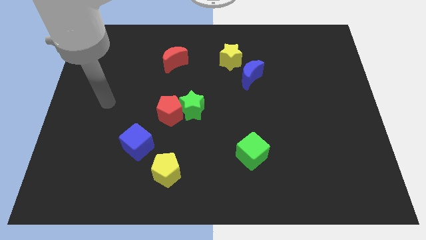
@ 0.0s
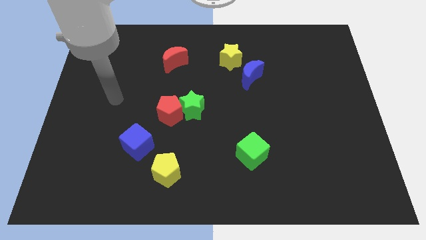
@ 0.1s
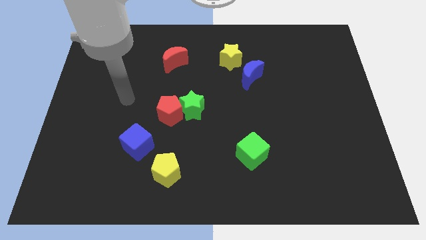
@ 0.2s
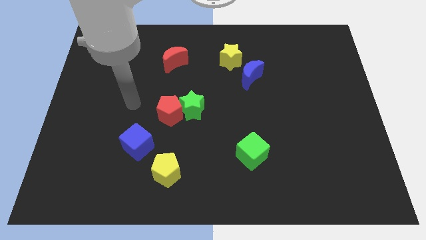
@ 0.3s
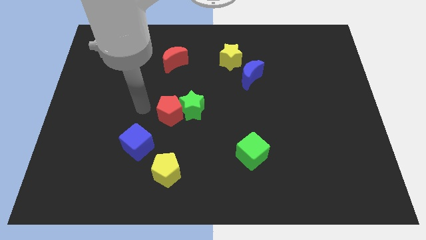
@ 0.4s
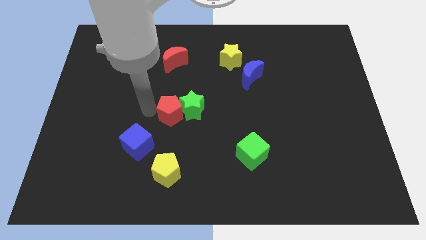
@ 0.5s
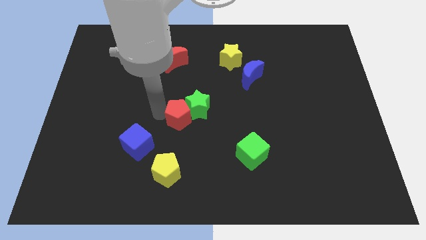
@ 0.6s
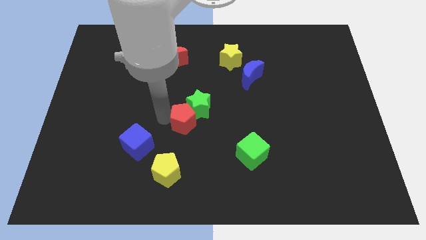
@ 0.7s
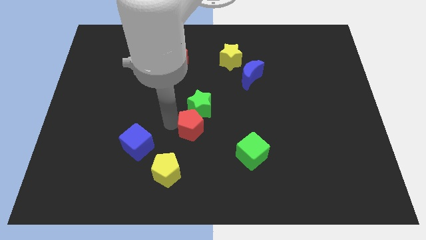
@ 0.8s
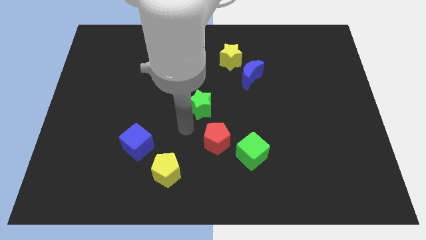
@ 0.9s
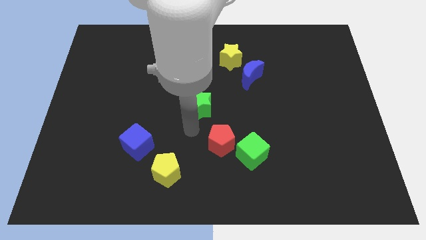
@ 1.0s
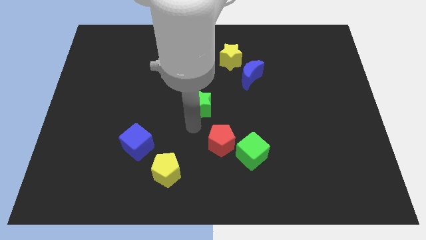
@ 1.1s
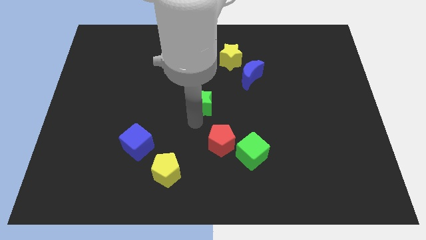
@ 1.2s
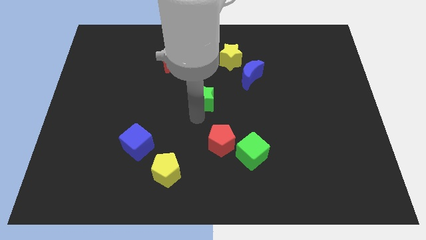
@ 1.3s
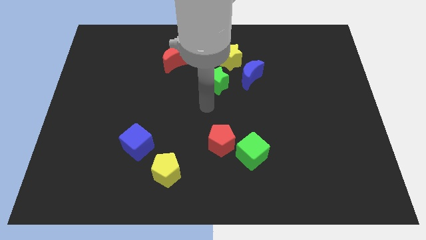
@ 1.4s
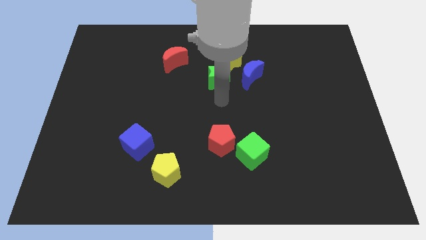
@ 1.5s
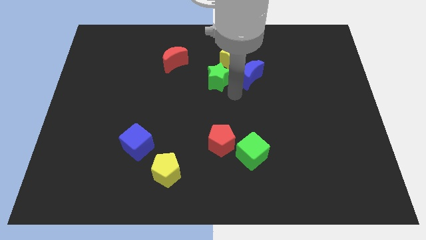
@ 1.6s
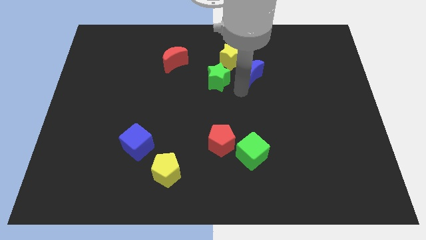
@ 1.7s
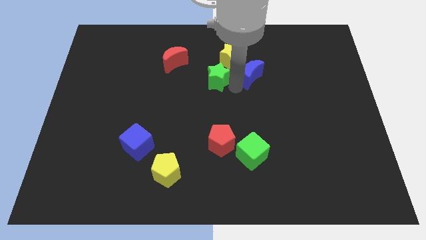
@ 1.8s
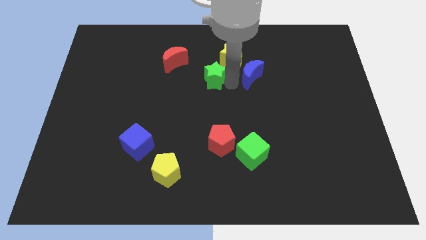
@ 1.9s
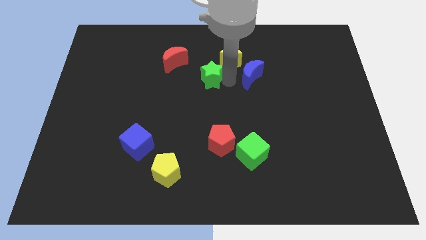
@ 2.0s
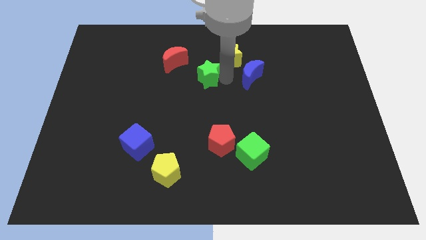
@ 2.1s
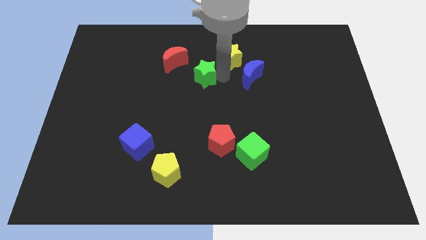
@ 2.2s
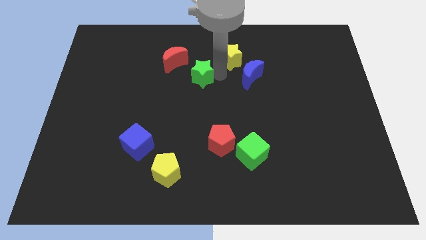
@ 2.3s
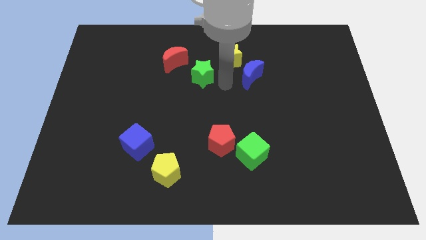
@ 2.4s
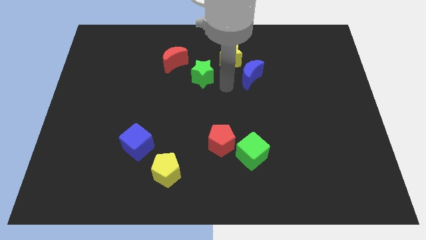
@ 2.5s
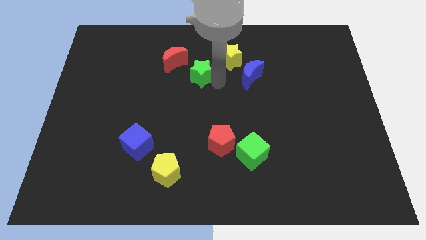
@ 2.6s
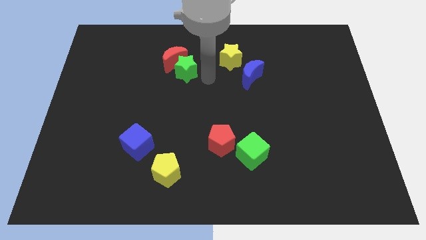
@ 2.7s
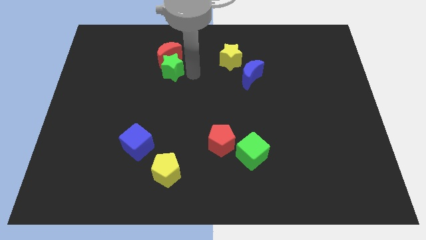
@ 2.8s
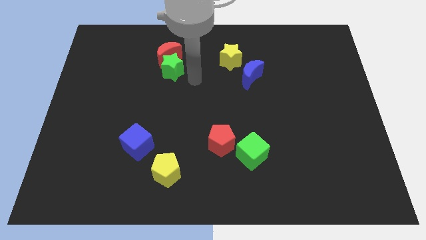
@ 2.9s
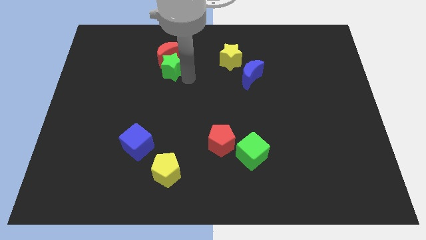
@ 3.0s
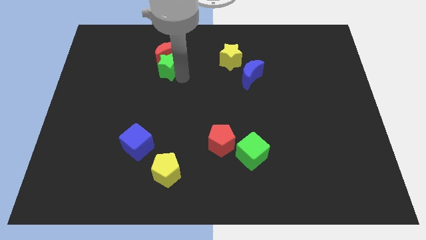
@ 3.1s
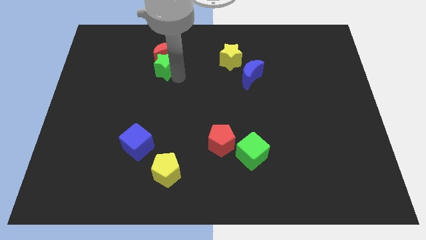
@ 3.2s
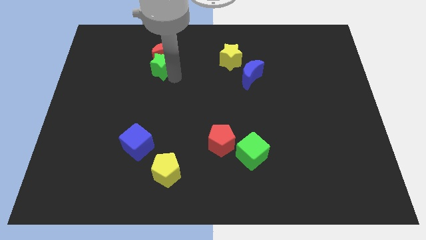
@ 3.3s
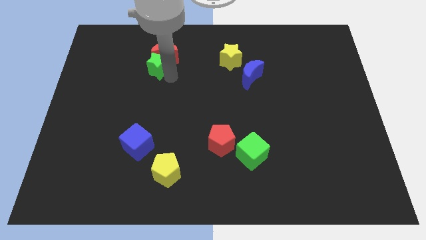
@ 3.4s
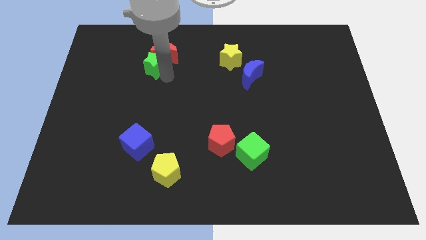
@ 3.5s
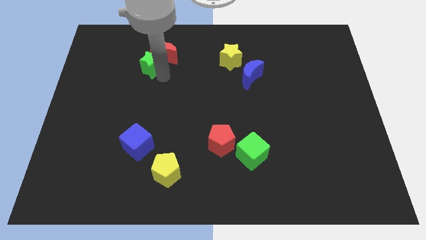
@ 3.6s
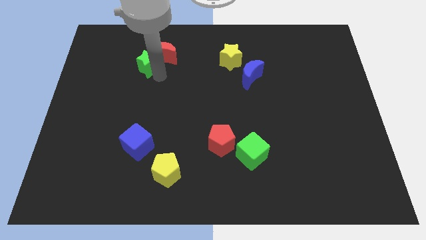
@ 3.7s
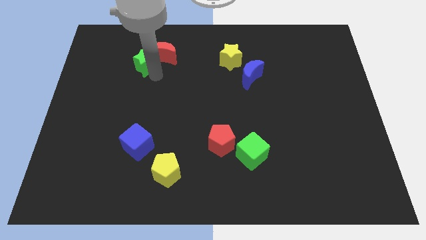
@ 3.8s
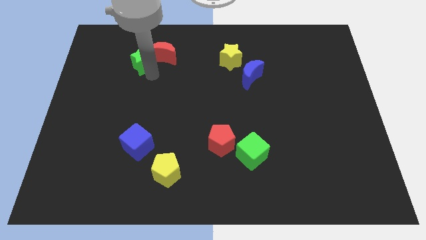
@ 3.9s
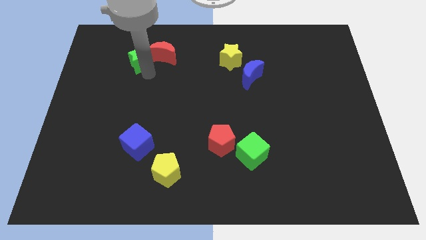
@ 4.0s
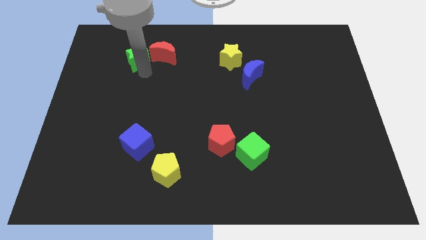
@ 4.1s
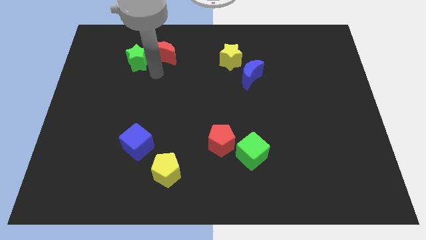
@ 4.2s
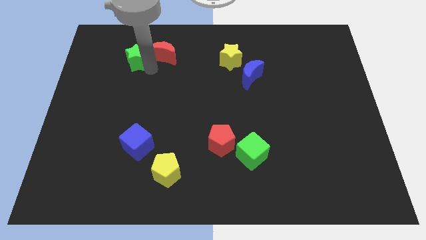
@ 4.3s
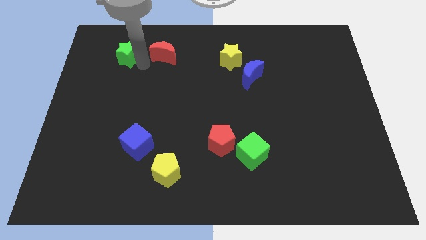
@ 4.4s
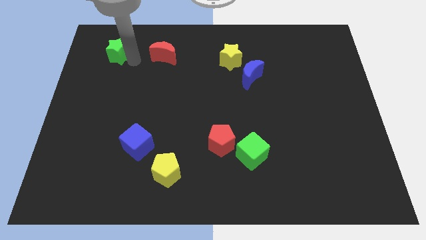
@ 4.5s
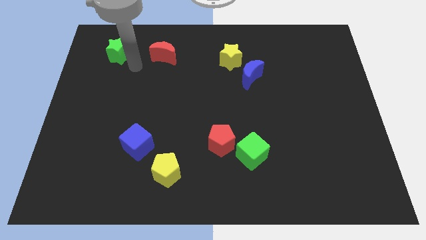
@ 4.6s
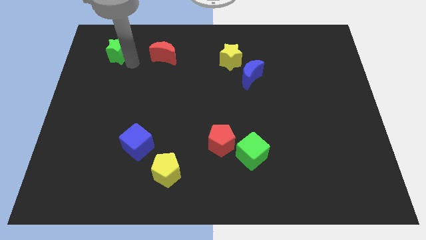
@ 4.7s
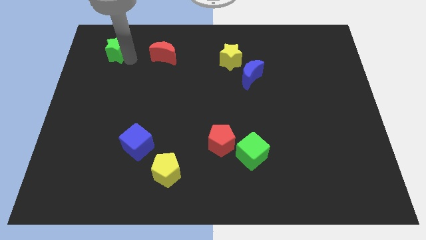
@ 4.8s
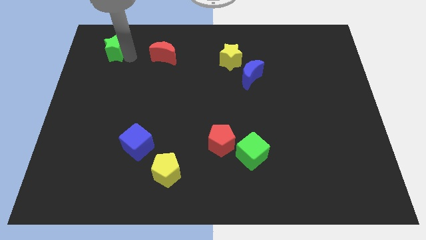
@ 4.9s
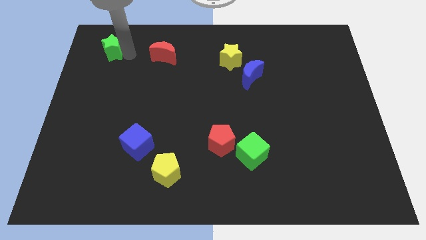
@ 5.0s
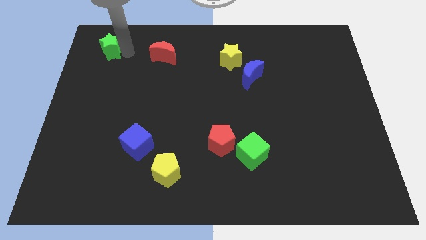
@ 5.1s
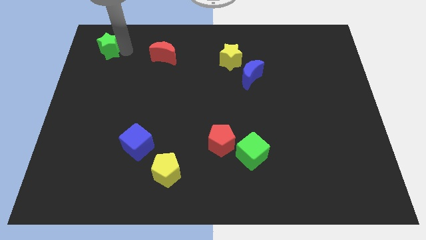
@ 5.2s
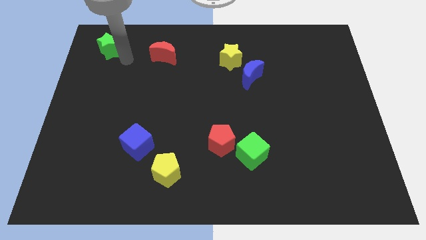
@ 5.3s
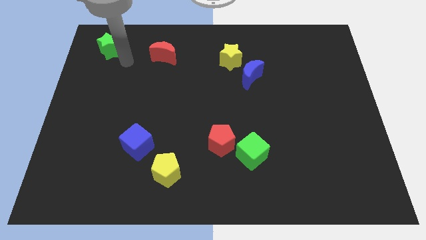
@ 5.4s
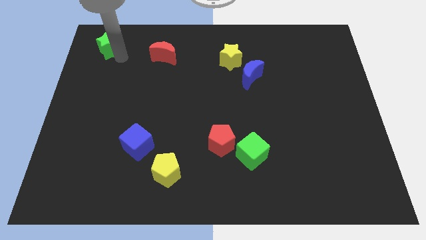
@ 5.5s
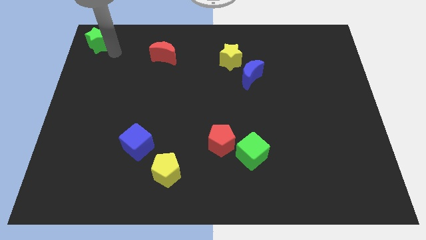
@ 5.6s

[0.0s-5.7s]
push the green star to the top left

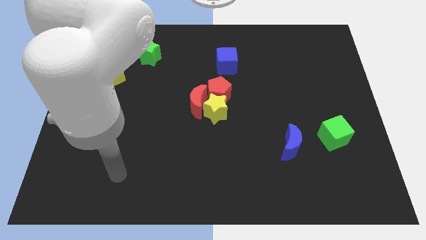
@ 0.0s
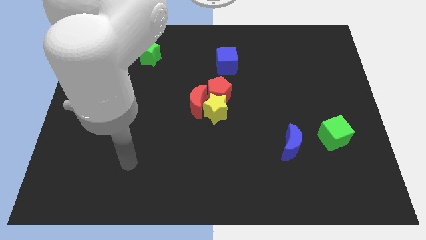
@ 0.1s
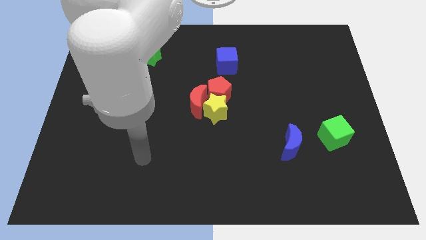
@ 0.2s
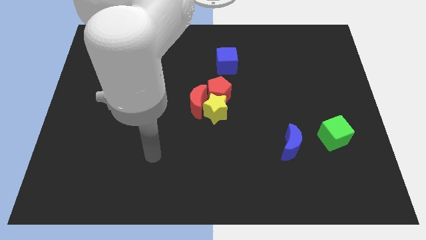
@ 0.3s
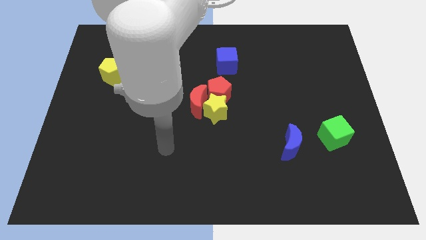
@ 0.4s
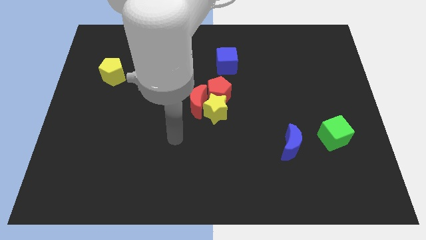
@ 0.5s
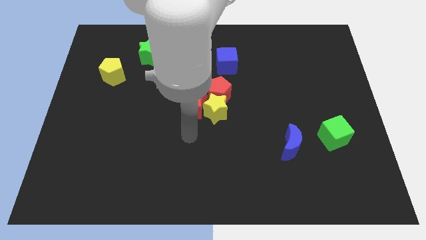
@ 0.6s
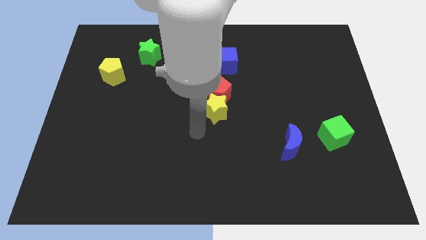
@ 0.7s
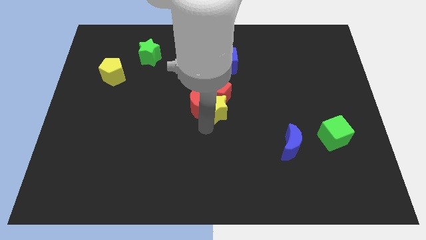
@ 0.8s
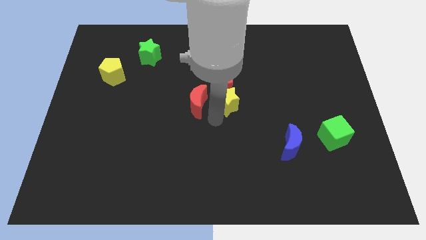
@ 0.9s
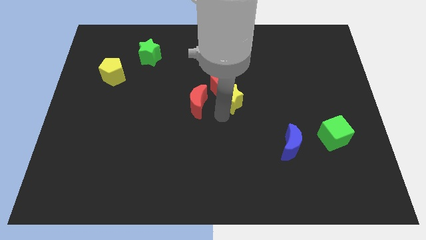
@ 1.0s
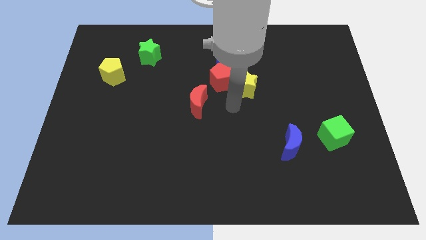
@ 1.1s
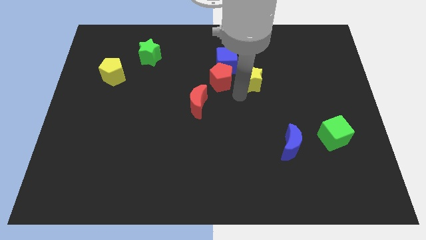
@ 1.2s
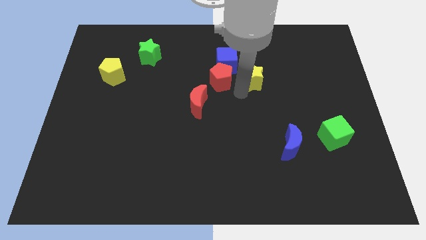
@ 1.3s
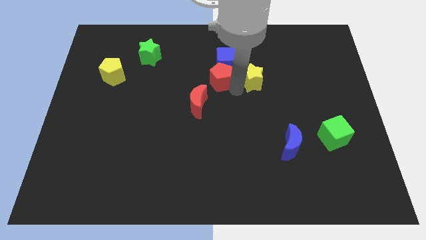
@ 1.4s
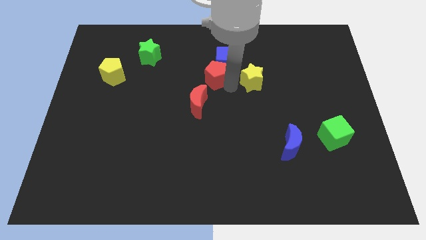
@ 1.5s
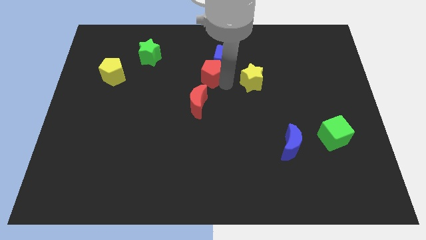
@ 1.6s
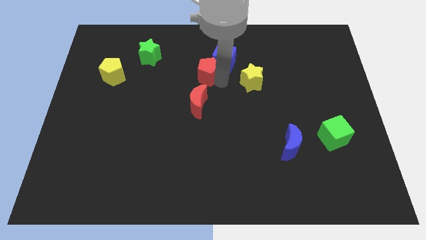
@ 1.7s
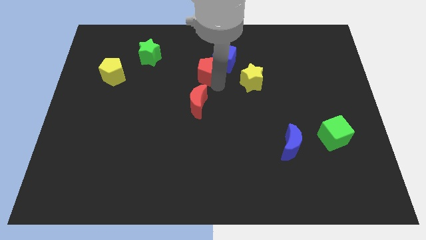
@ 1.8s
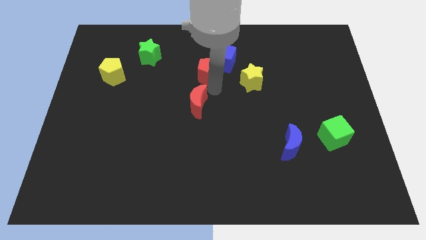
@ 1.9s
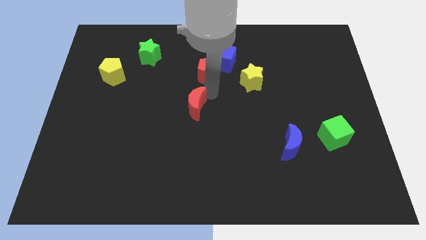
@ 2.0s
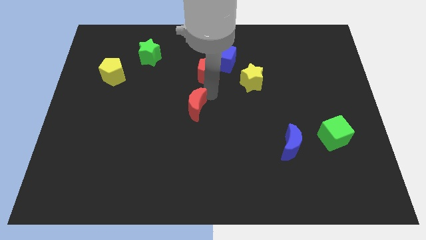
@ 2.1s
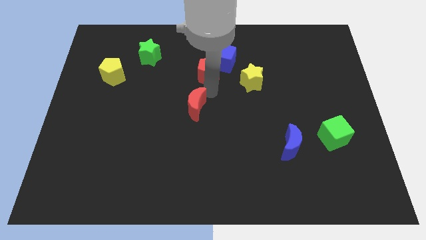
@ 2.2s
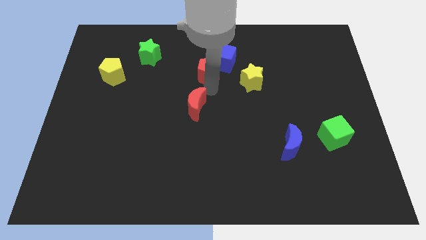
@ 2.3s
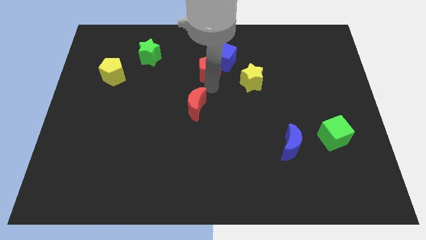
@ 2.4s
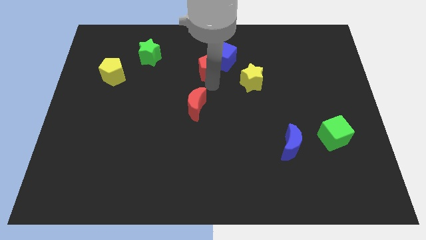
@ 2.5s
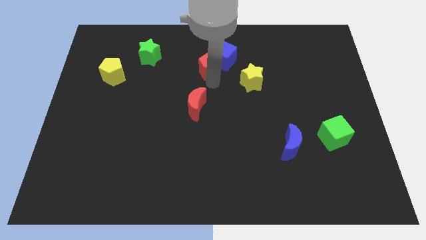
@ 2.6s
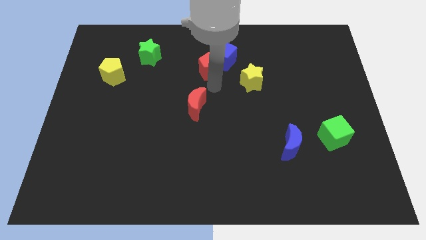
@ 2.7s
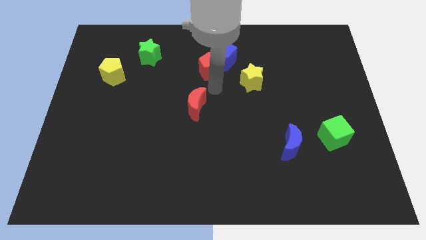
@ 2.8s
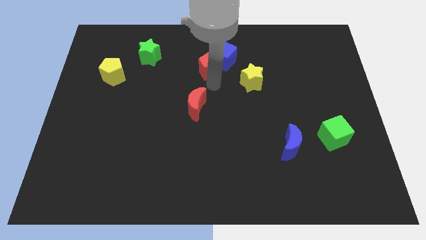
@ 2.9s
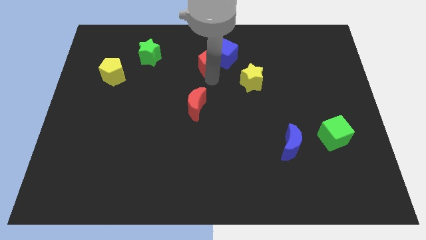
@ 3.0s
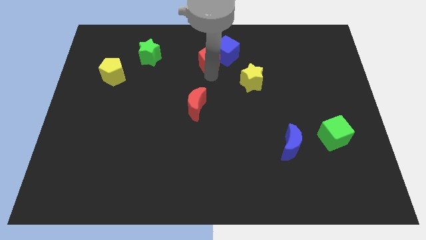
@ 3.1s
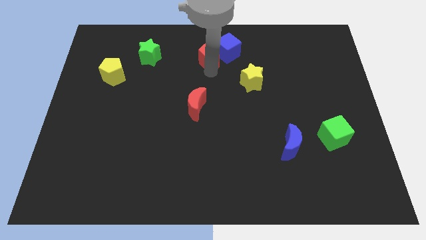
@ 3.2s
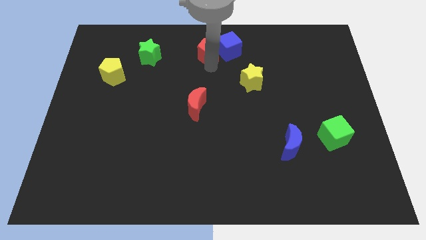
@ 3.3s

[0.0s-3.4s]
slide the red pentagon to the top side
